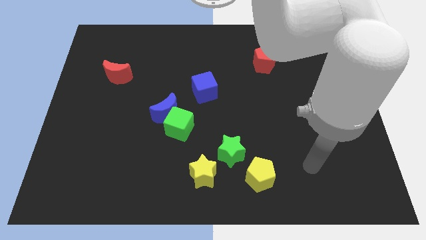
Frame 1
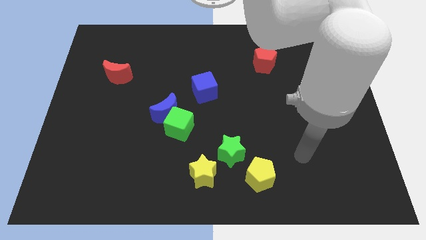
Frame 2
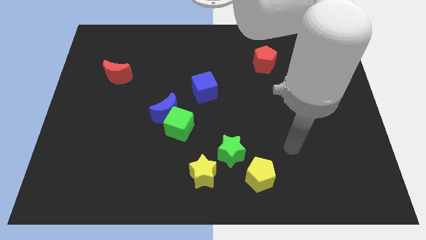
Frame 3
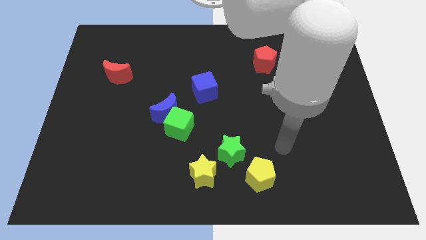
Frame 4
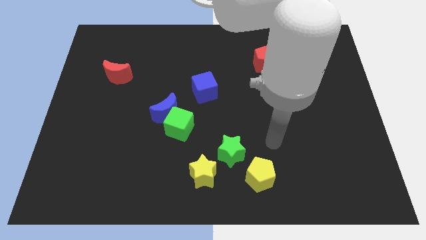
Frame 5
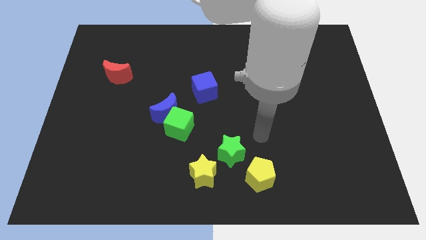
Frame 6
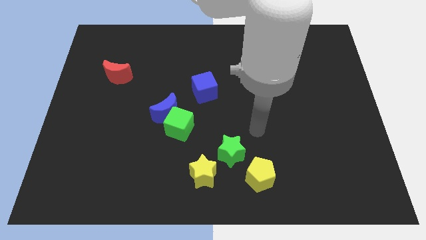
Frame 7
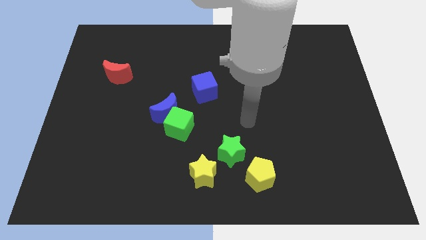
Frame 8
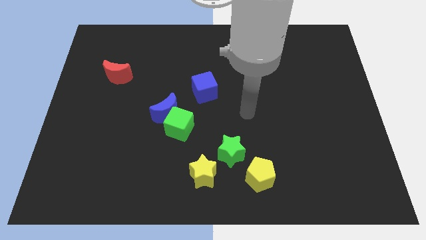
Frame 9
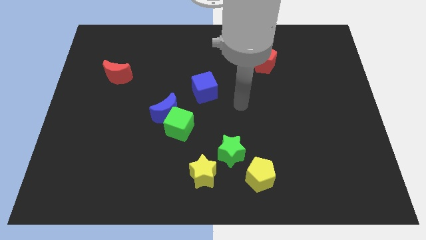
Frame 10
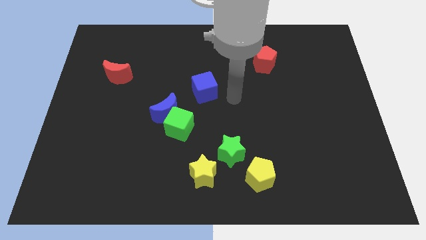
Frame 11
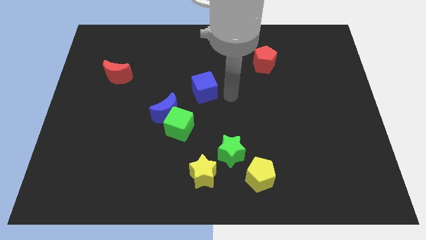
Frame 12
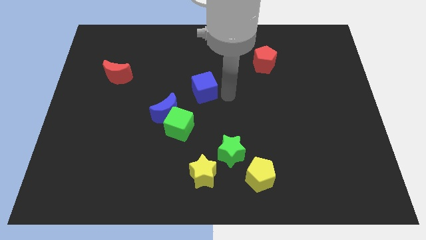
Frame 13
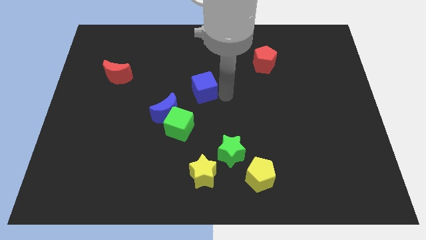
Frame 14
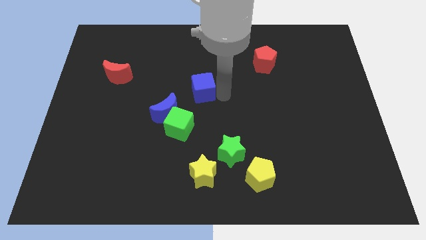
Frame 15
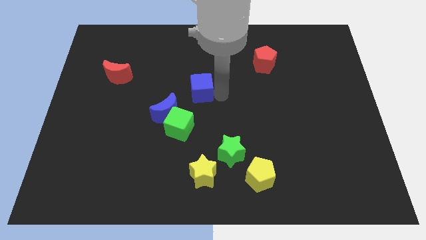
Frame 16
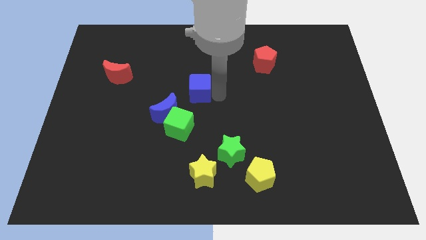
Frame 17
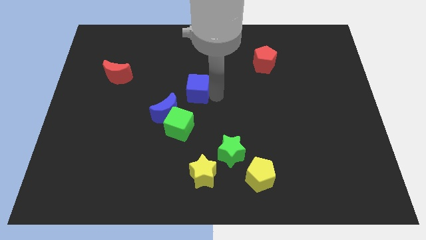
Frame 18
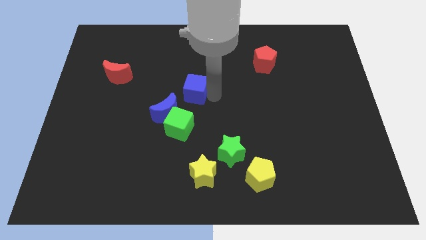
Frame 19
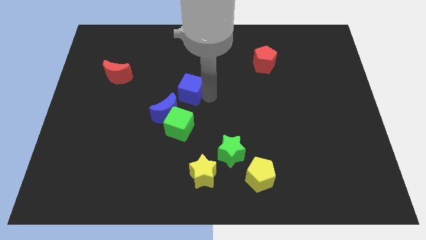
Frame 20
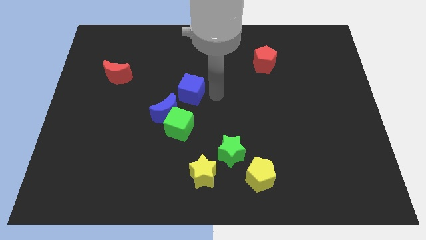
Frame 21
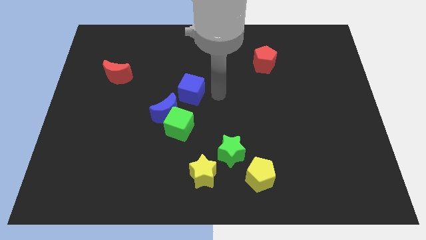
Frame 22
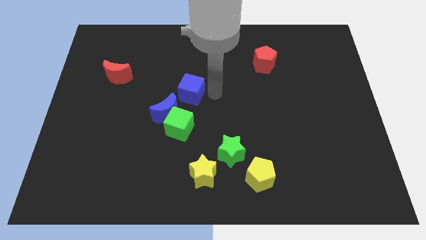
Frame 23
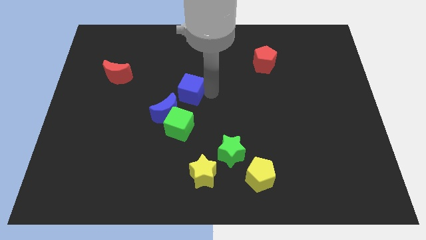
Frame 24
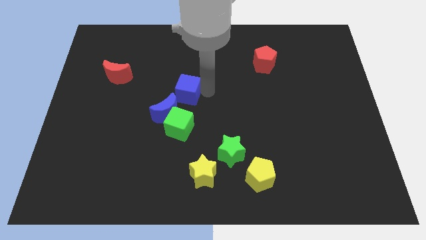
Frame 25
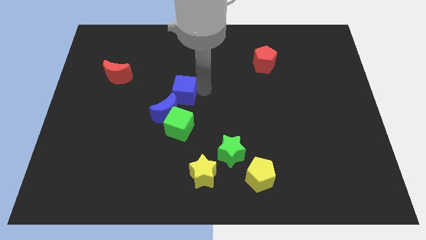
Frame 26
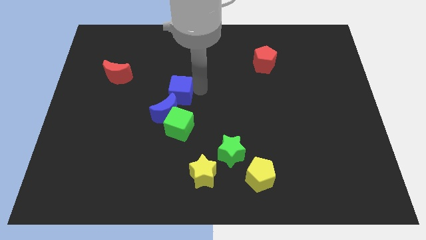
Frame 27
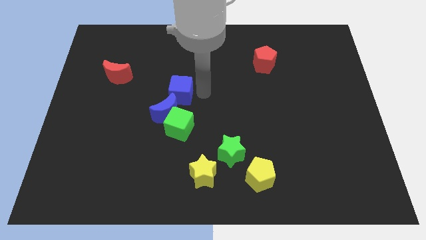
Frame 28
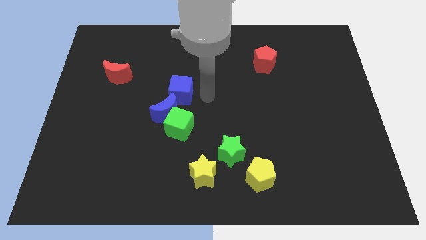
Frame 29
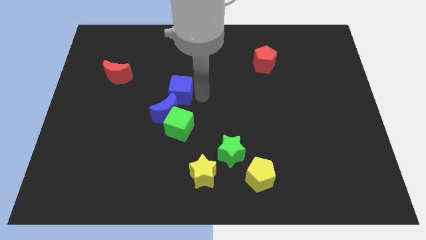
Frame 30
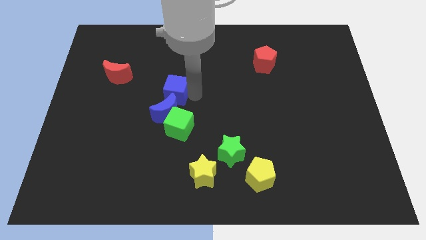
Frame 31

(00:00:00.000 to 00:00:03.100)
slightly move the blue cube to the left

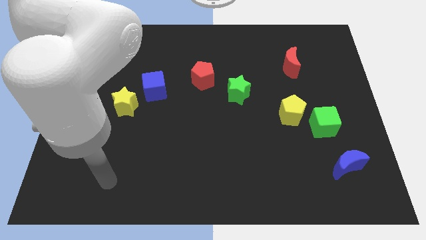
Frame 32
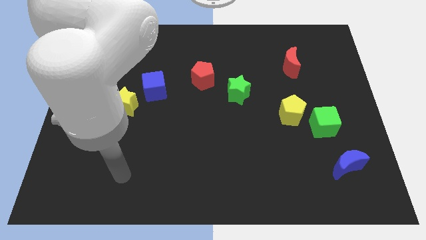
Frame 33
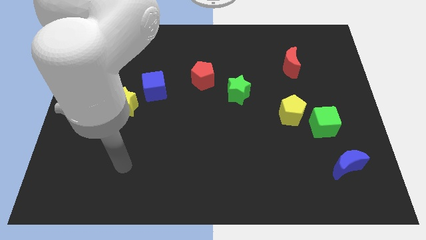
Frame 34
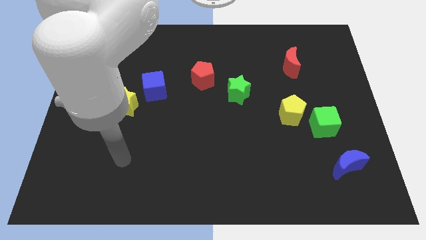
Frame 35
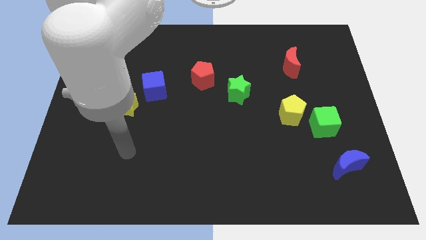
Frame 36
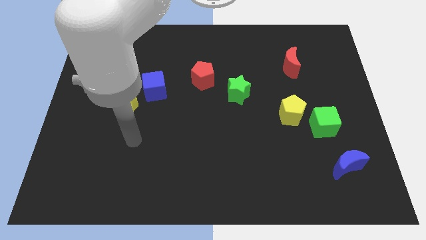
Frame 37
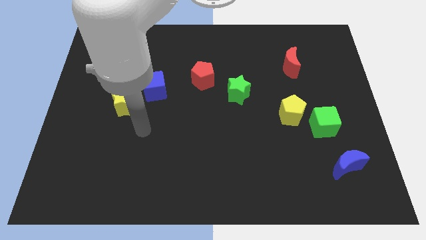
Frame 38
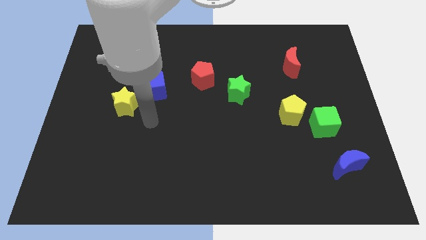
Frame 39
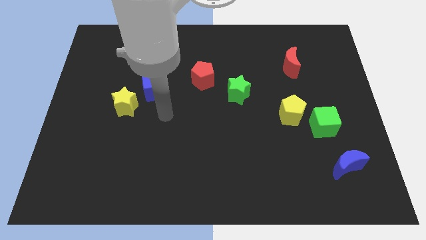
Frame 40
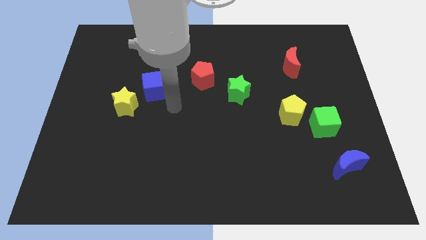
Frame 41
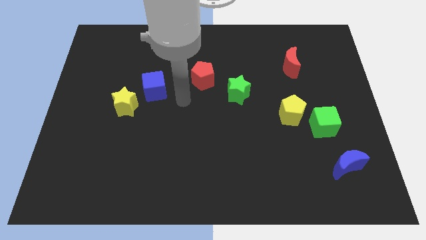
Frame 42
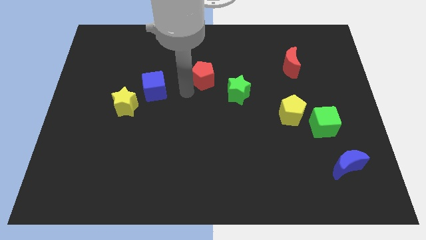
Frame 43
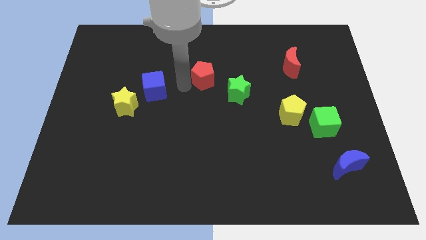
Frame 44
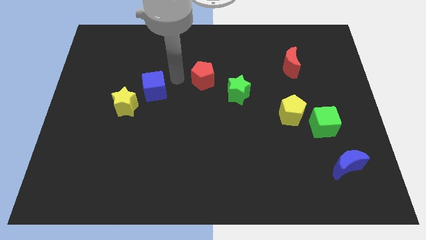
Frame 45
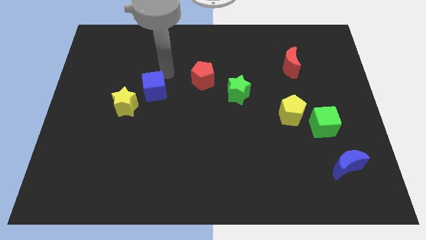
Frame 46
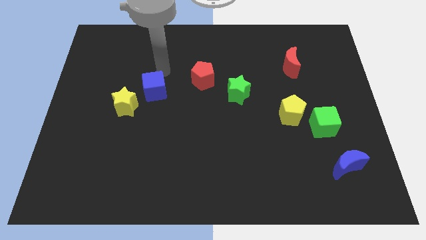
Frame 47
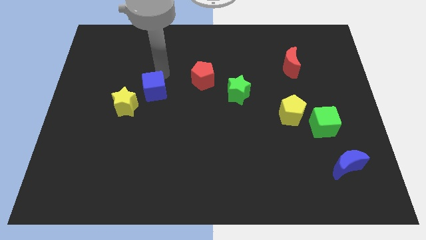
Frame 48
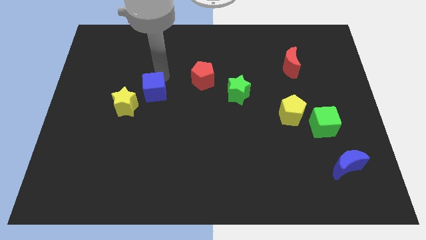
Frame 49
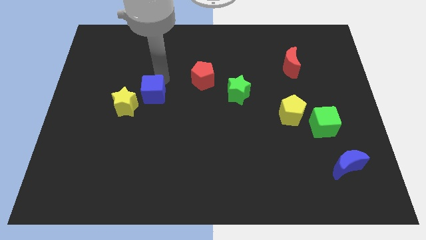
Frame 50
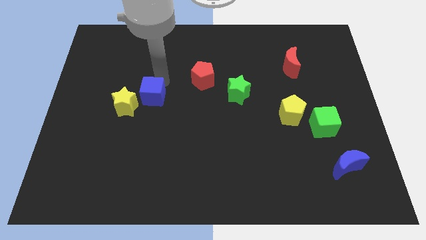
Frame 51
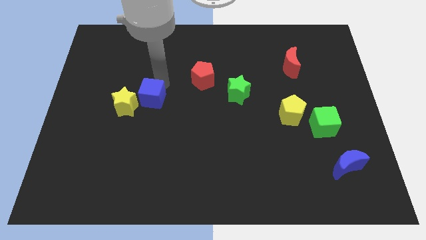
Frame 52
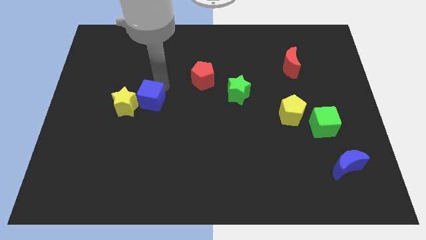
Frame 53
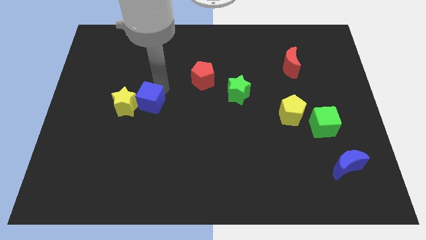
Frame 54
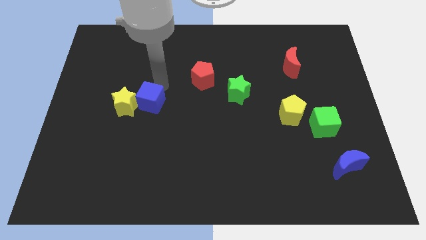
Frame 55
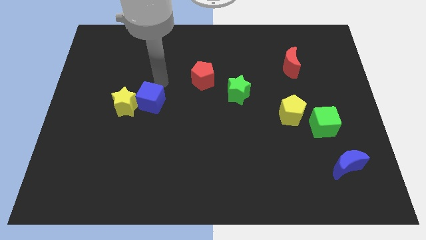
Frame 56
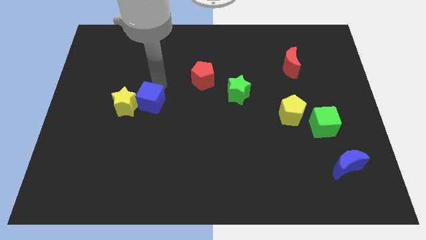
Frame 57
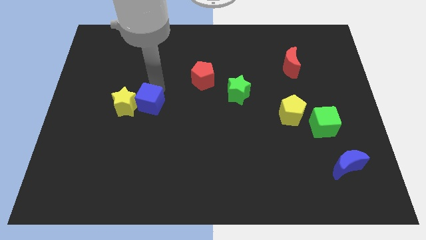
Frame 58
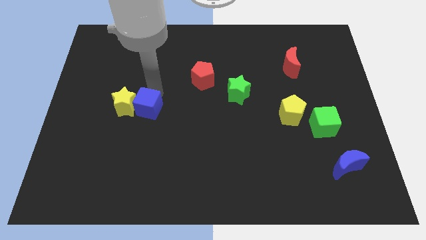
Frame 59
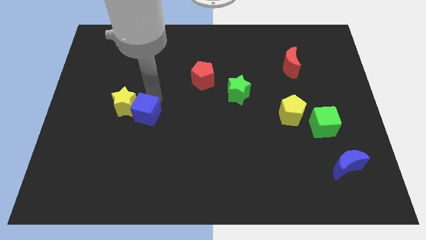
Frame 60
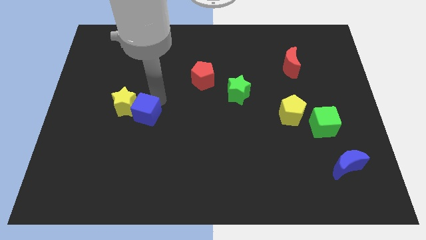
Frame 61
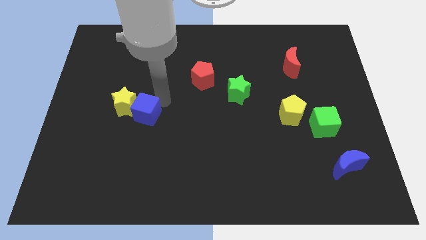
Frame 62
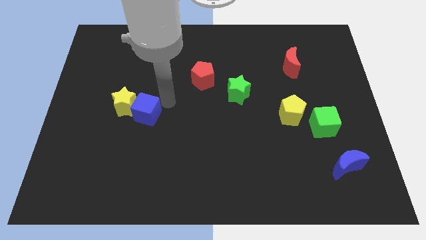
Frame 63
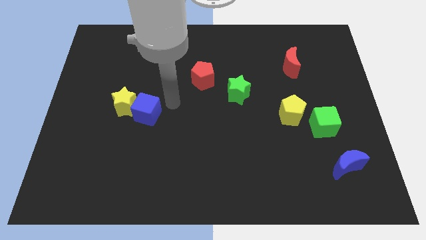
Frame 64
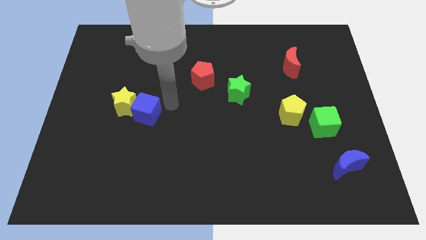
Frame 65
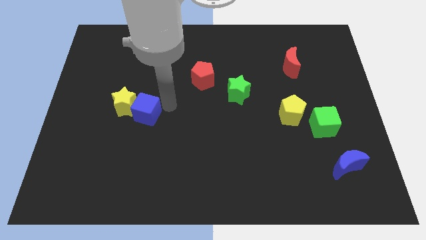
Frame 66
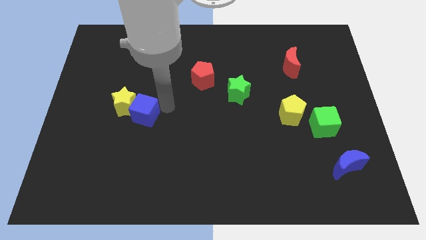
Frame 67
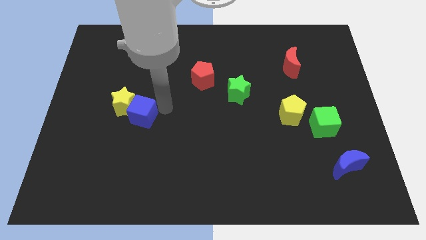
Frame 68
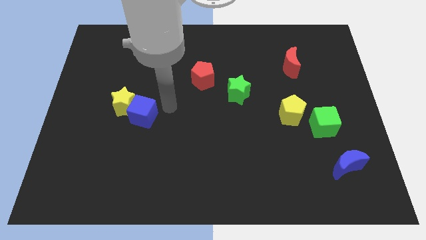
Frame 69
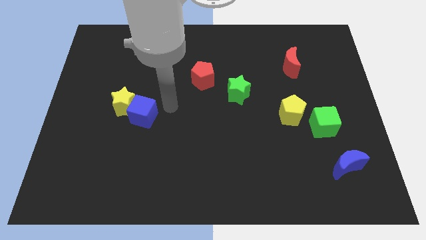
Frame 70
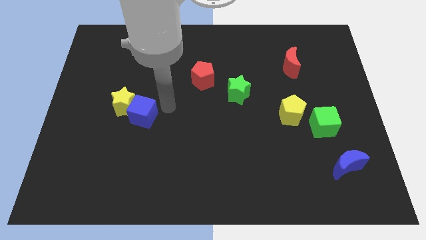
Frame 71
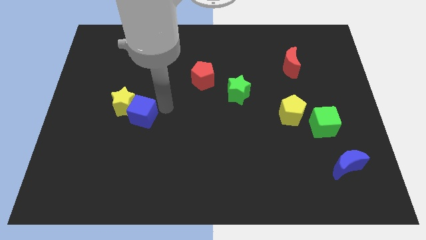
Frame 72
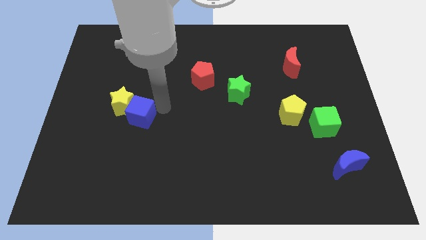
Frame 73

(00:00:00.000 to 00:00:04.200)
slightly move the blue cube diagonally downwards and to the left

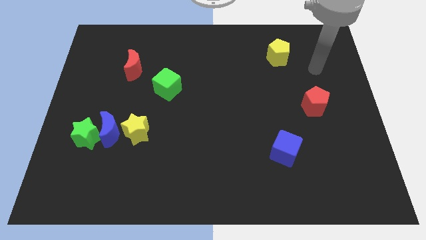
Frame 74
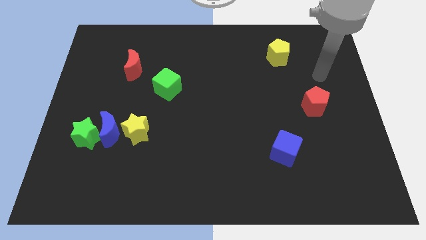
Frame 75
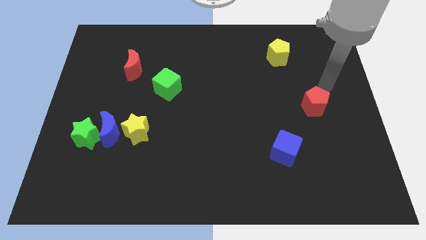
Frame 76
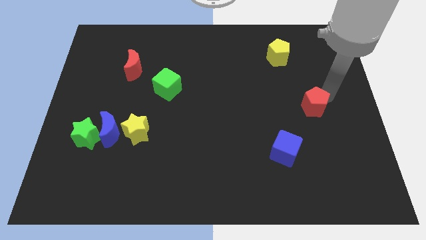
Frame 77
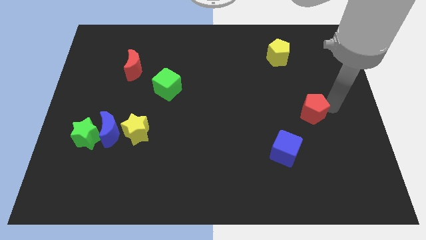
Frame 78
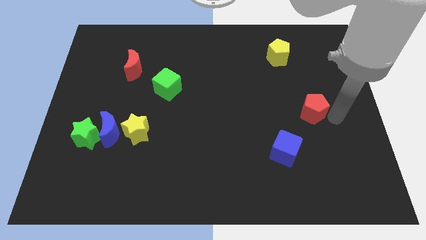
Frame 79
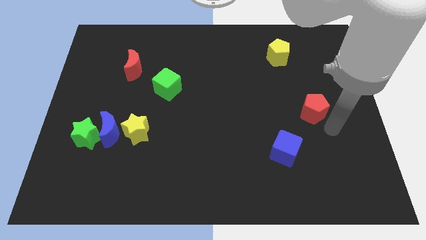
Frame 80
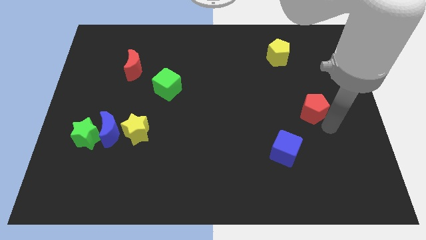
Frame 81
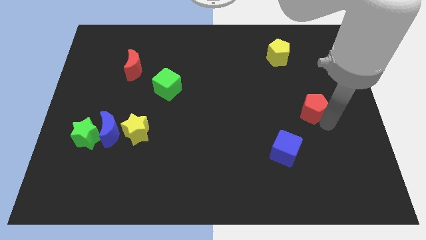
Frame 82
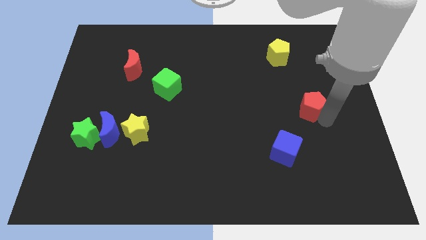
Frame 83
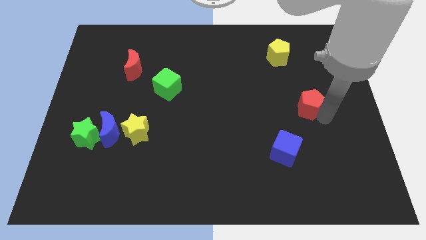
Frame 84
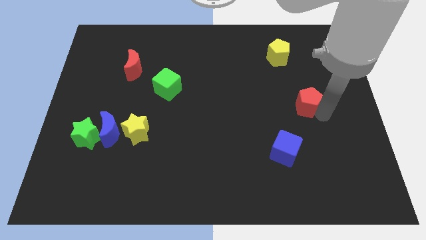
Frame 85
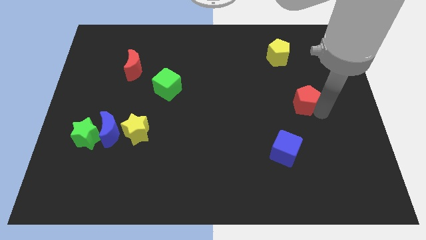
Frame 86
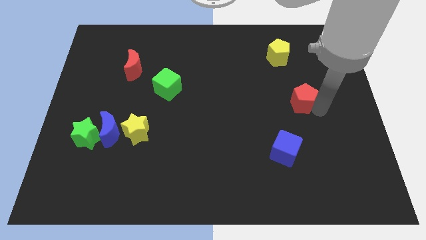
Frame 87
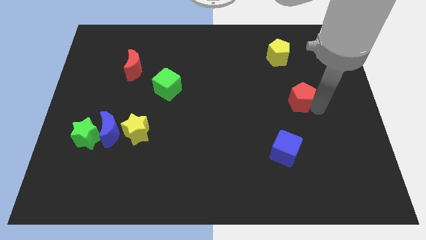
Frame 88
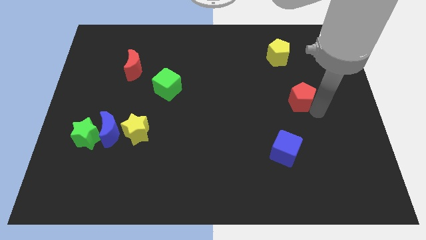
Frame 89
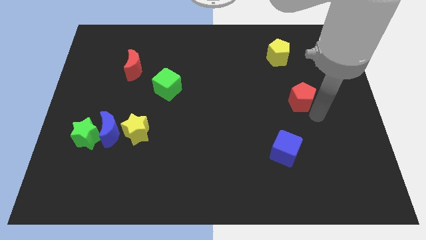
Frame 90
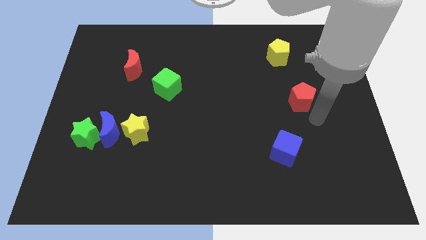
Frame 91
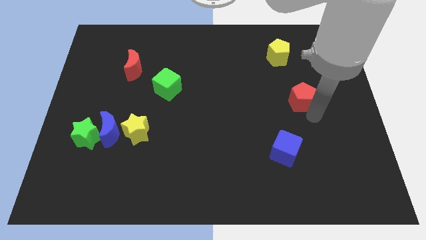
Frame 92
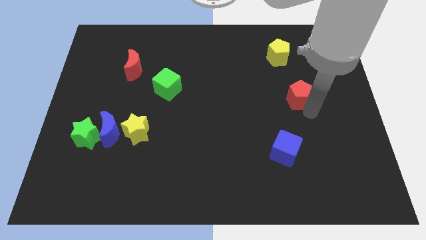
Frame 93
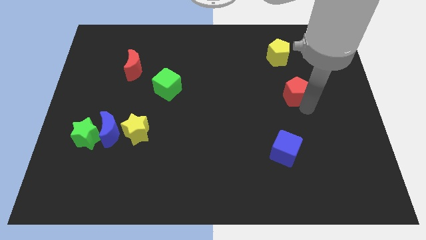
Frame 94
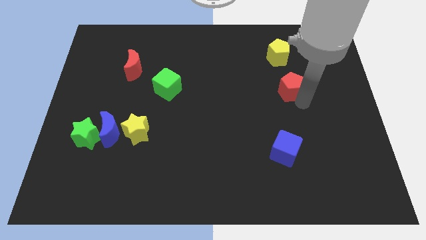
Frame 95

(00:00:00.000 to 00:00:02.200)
push the red pentagon a bit diagonally up and to the left
